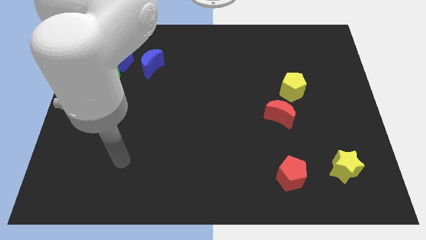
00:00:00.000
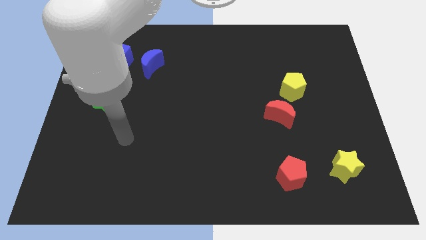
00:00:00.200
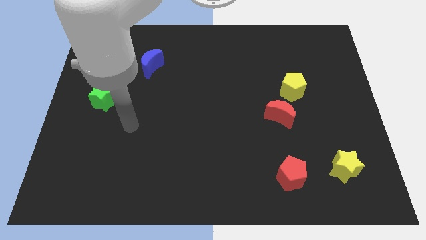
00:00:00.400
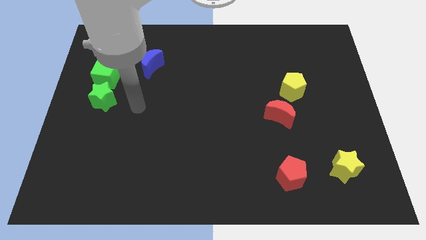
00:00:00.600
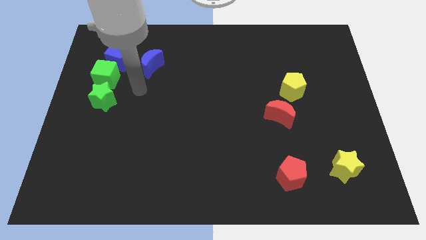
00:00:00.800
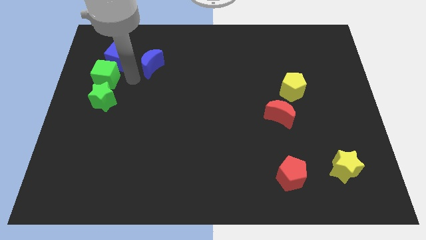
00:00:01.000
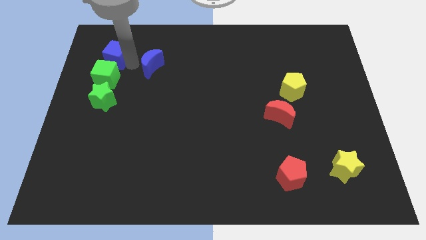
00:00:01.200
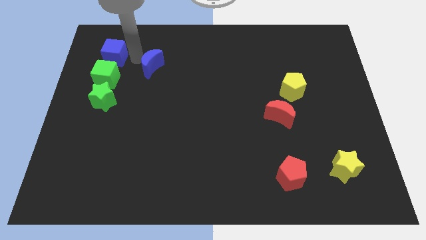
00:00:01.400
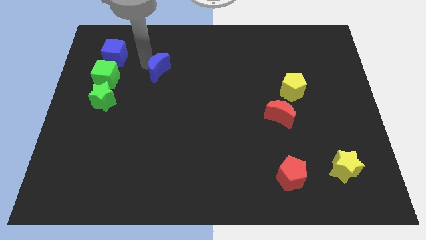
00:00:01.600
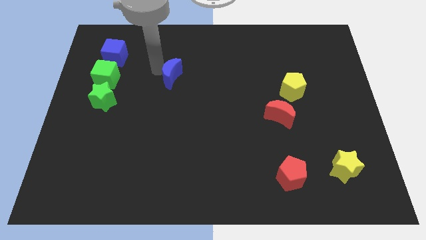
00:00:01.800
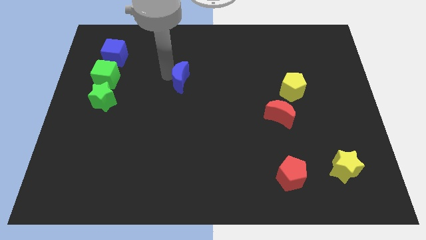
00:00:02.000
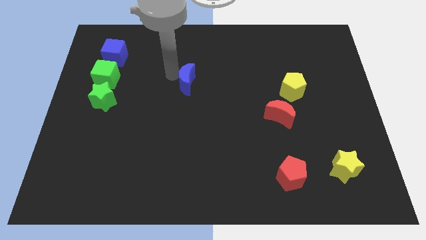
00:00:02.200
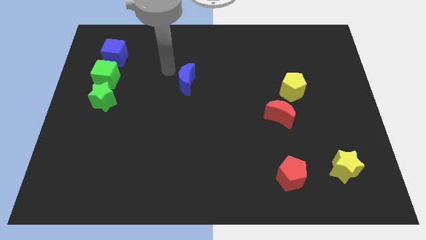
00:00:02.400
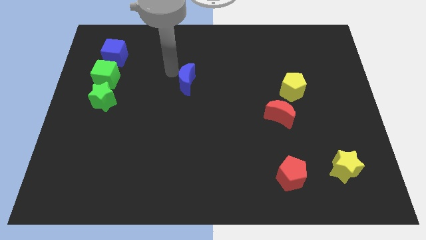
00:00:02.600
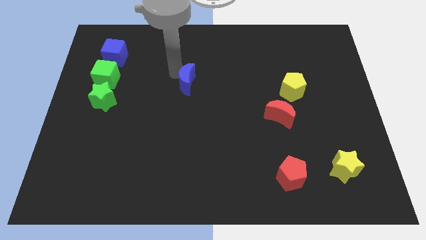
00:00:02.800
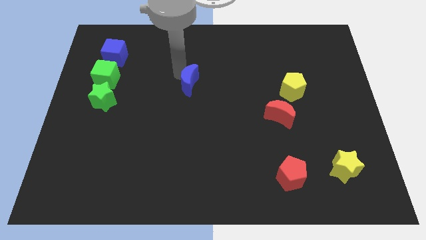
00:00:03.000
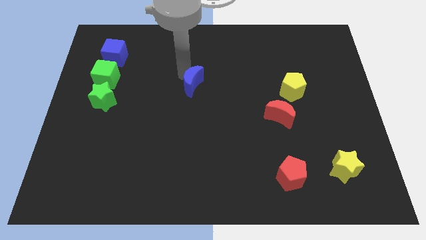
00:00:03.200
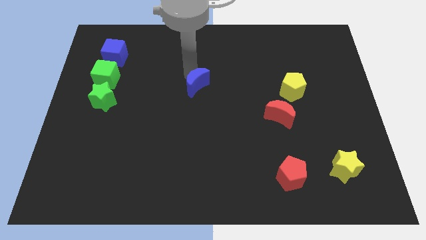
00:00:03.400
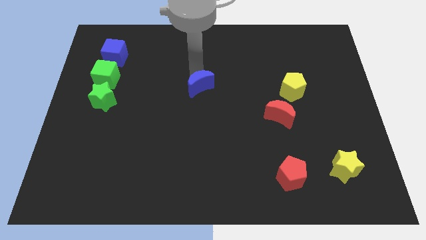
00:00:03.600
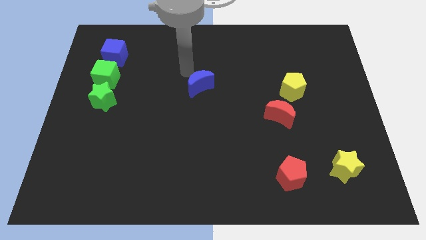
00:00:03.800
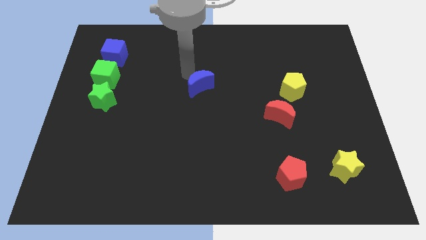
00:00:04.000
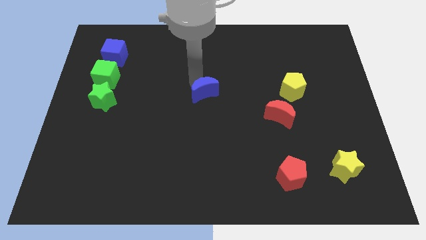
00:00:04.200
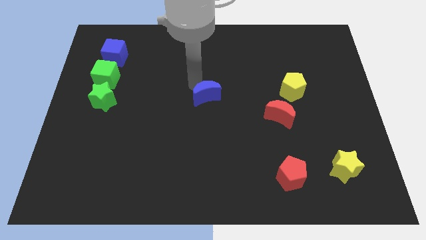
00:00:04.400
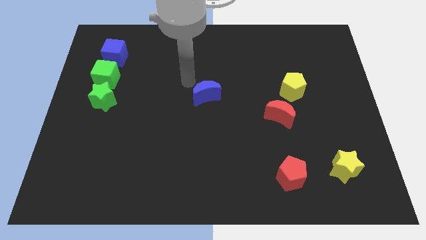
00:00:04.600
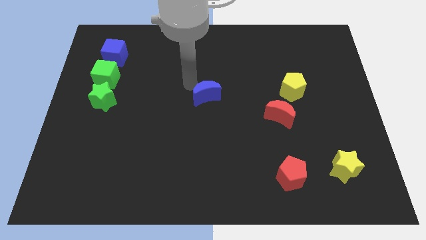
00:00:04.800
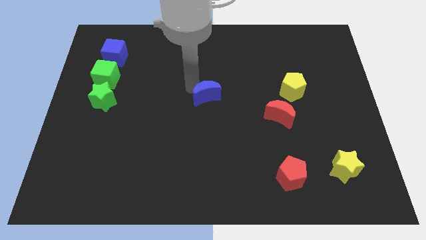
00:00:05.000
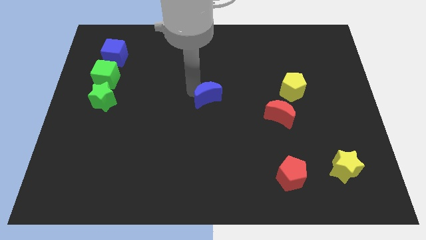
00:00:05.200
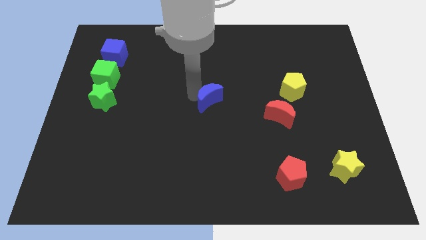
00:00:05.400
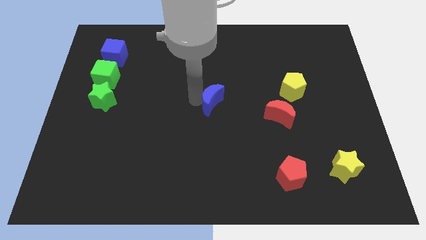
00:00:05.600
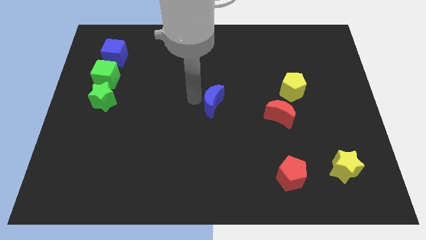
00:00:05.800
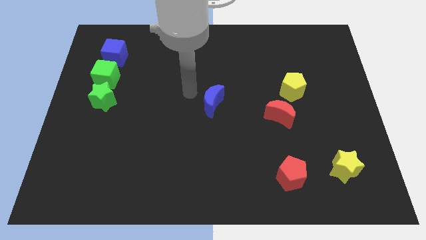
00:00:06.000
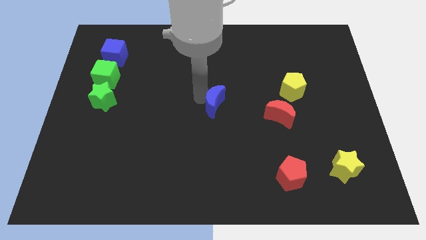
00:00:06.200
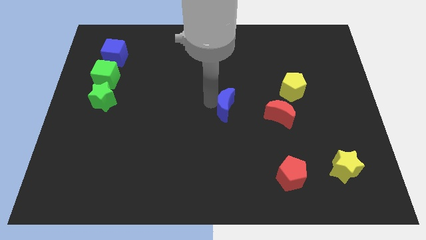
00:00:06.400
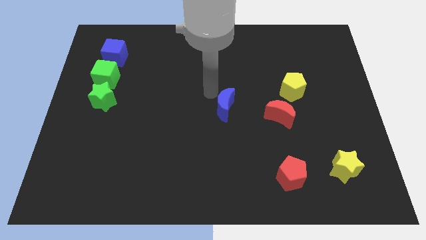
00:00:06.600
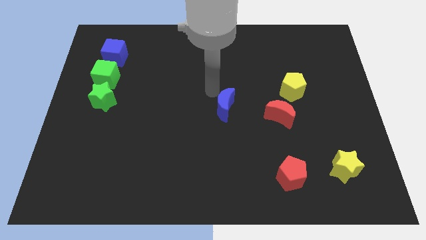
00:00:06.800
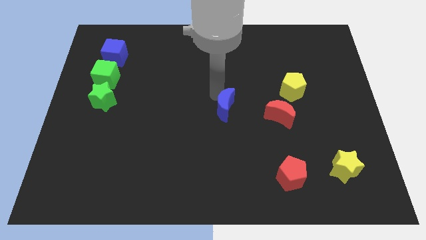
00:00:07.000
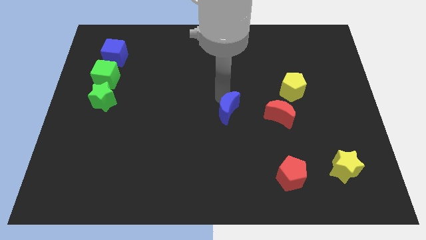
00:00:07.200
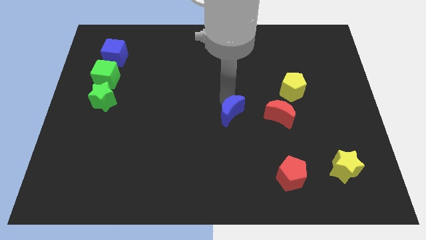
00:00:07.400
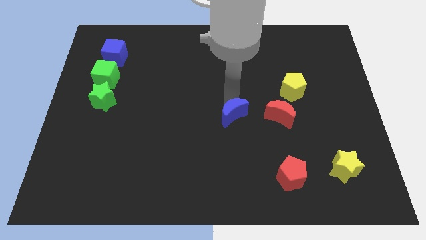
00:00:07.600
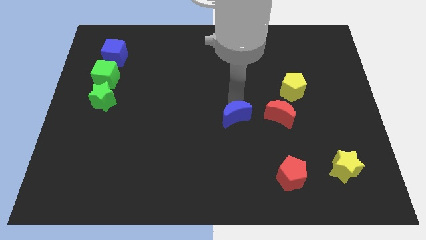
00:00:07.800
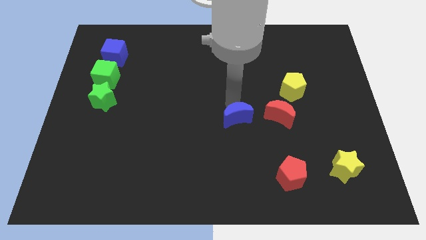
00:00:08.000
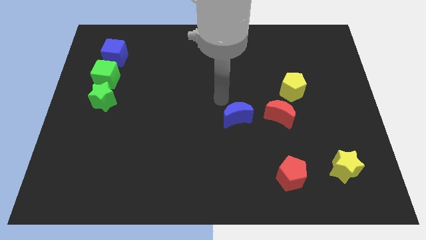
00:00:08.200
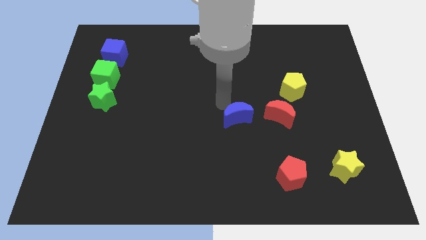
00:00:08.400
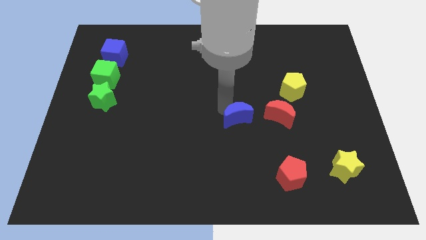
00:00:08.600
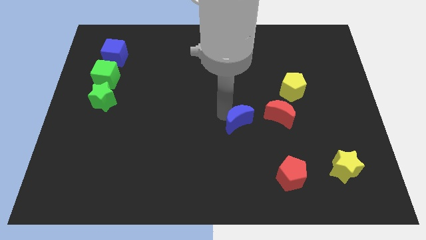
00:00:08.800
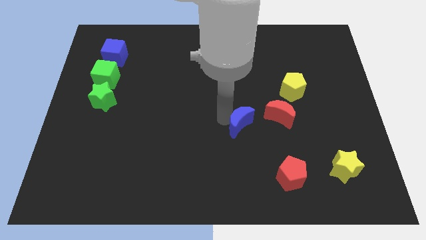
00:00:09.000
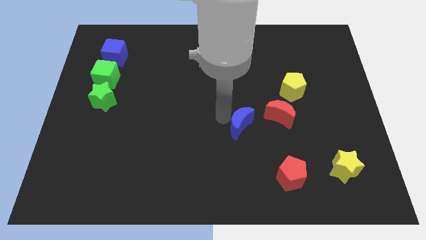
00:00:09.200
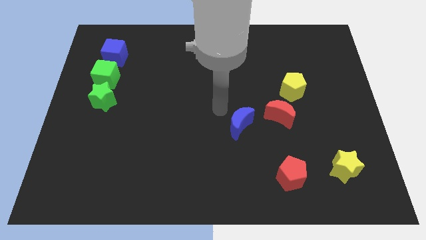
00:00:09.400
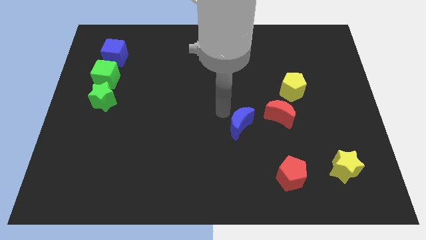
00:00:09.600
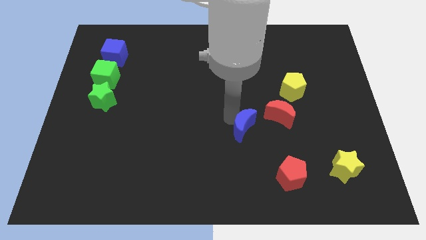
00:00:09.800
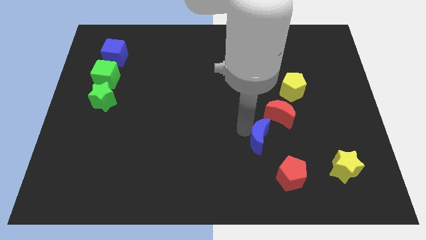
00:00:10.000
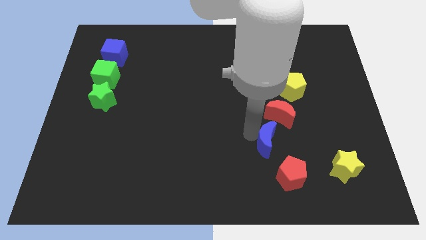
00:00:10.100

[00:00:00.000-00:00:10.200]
slide the blue moon to the bottom side of the red moon

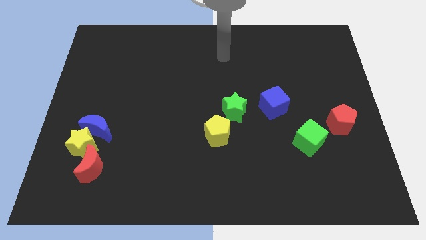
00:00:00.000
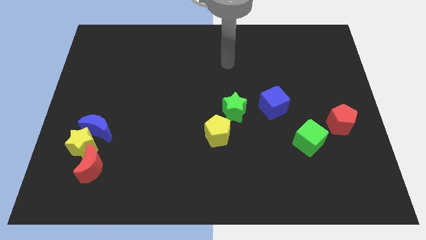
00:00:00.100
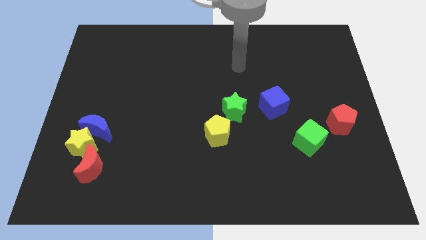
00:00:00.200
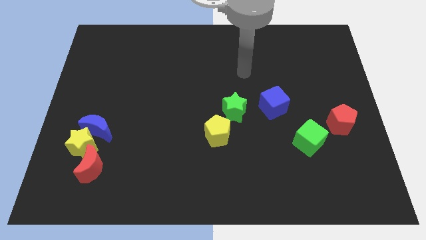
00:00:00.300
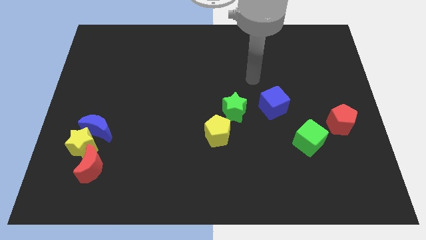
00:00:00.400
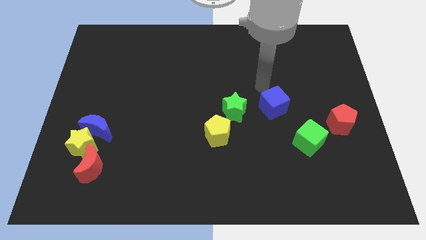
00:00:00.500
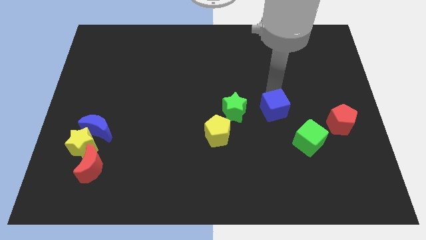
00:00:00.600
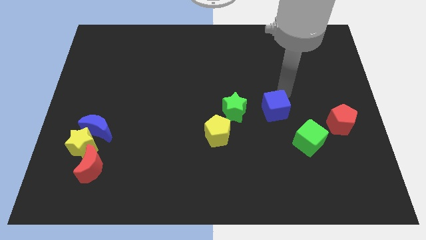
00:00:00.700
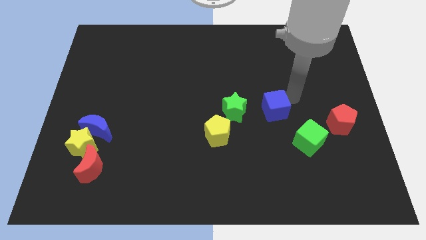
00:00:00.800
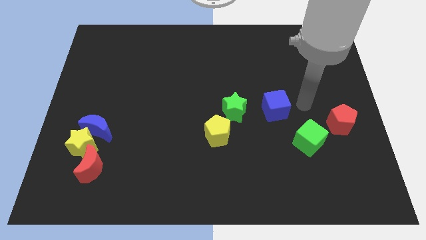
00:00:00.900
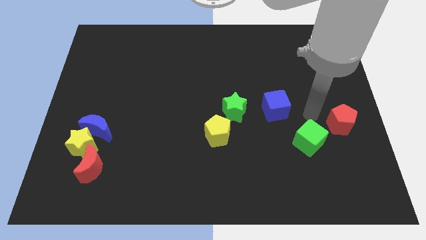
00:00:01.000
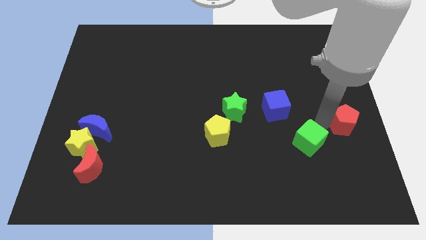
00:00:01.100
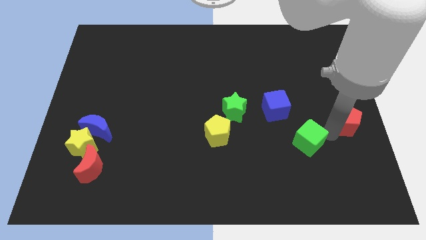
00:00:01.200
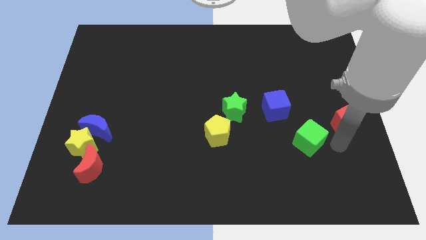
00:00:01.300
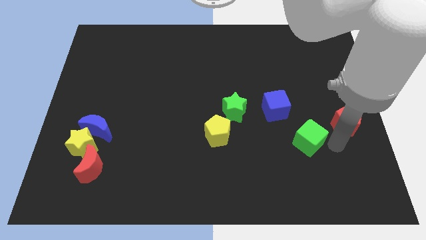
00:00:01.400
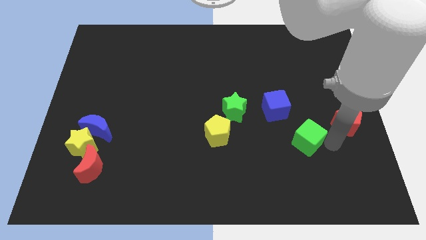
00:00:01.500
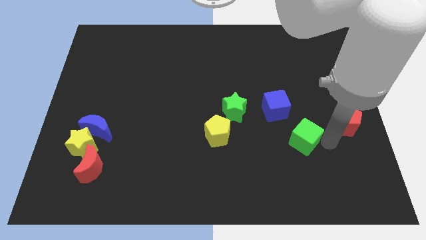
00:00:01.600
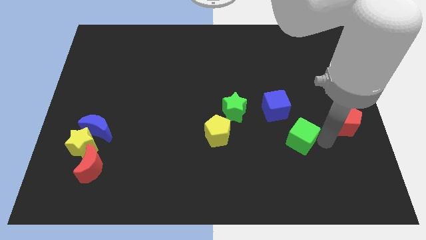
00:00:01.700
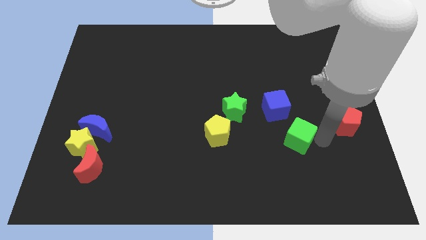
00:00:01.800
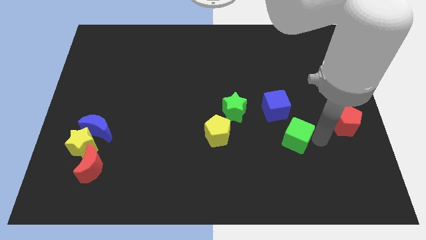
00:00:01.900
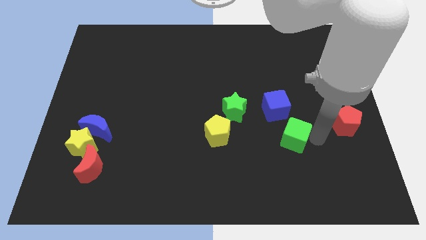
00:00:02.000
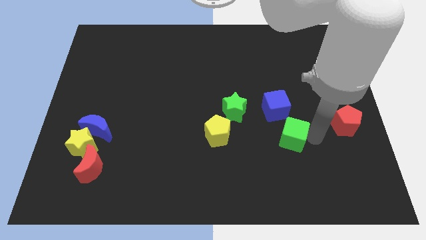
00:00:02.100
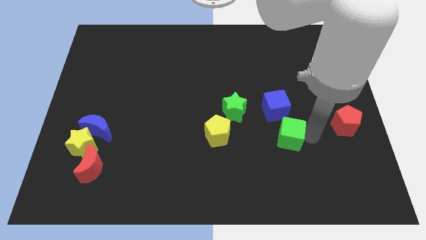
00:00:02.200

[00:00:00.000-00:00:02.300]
move the green cube just right of the yellow pentagon

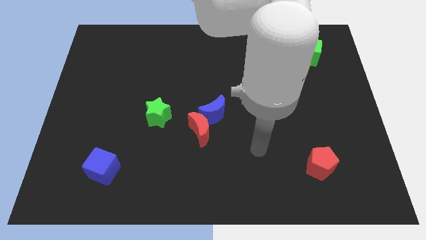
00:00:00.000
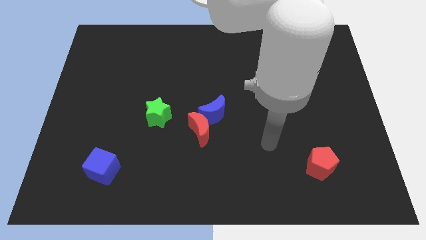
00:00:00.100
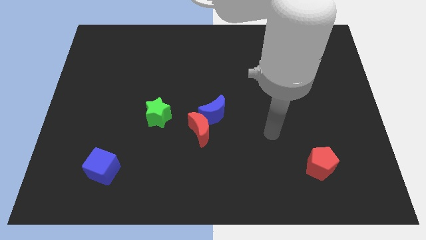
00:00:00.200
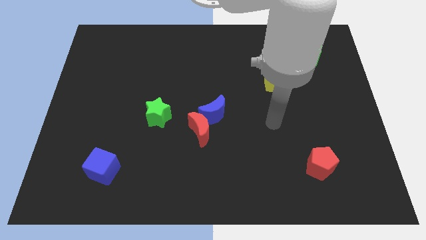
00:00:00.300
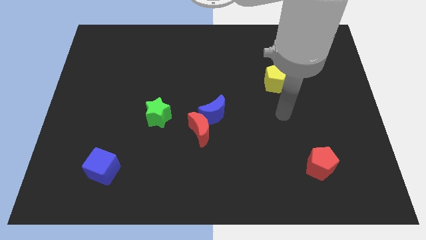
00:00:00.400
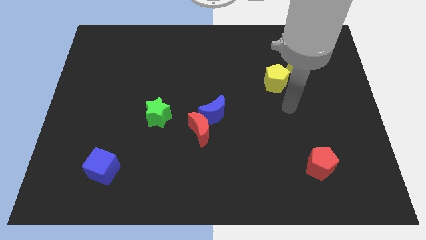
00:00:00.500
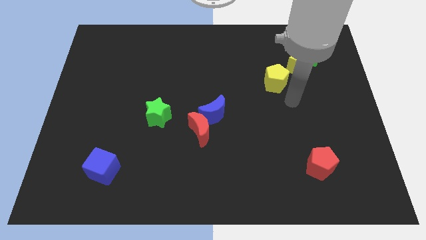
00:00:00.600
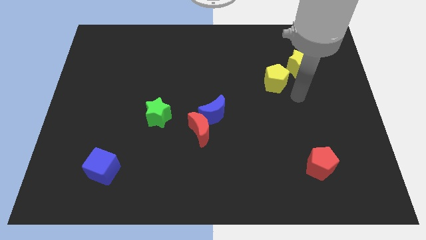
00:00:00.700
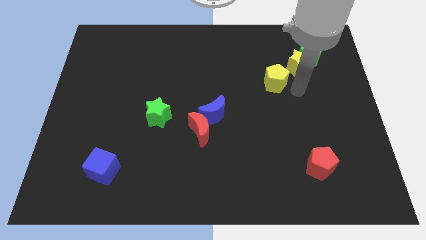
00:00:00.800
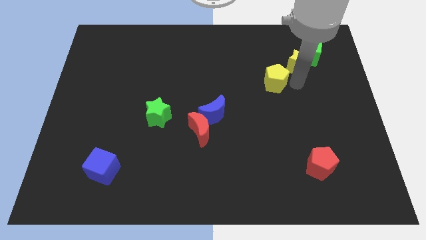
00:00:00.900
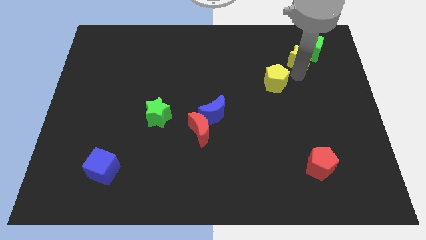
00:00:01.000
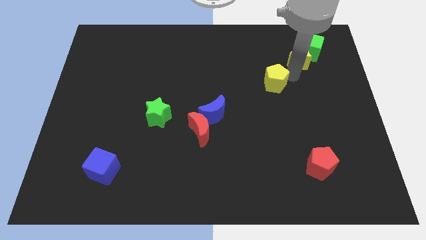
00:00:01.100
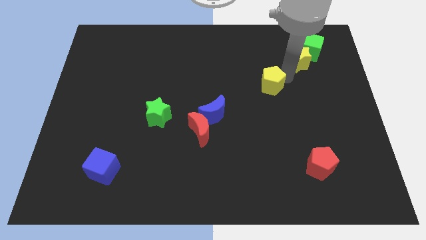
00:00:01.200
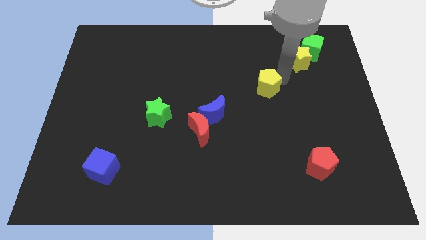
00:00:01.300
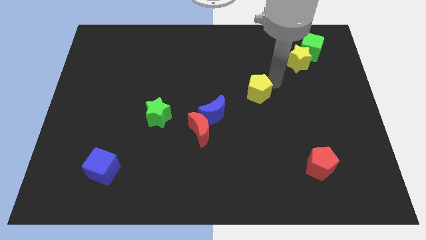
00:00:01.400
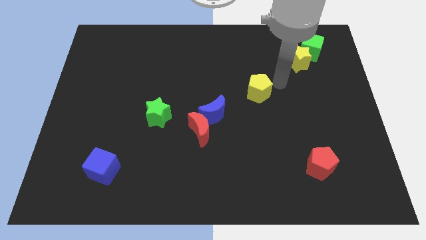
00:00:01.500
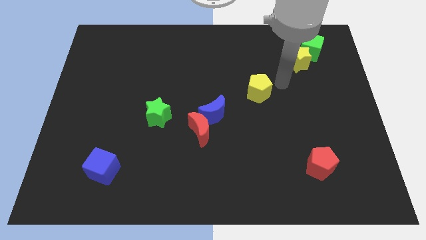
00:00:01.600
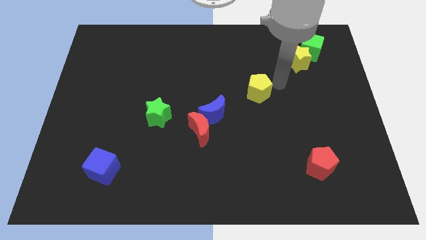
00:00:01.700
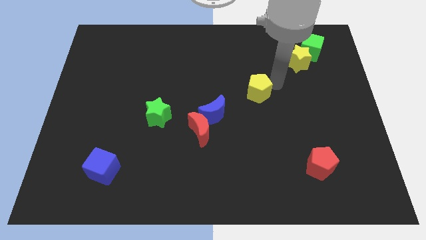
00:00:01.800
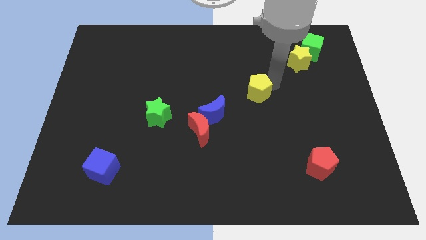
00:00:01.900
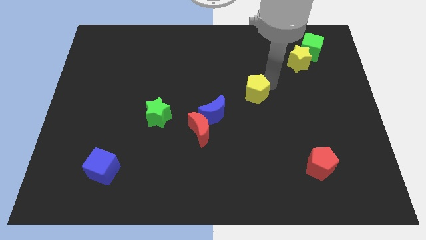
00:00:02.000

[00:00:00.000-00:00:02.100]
put the yellow pentagon to the top right of the blue moon
